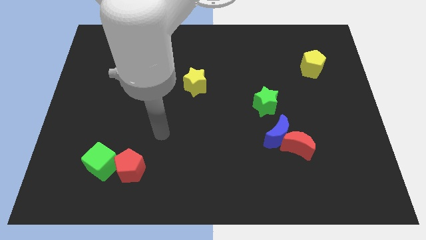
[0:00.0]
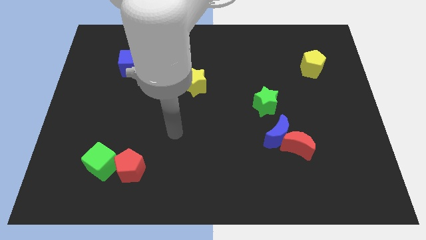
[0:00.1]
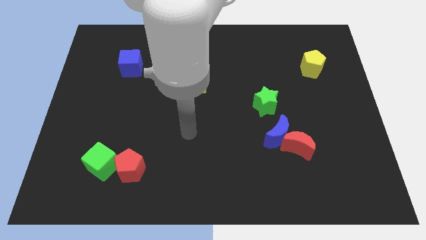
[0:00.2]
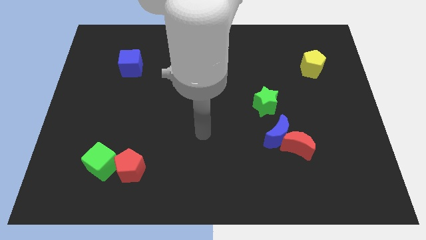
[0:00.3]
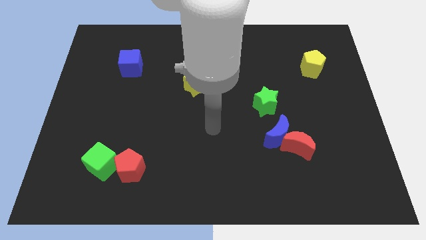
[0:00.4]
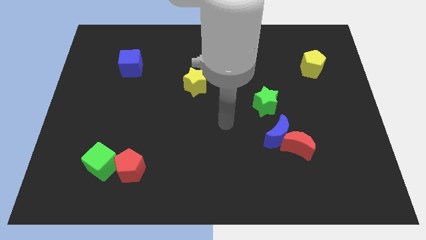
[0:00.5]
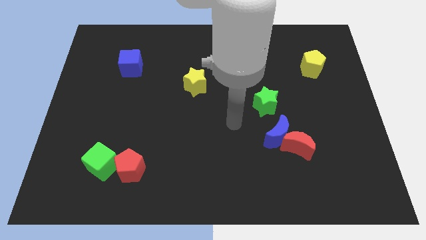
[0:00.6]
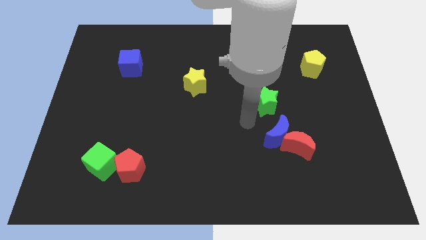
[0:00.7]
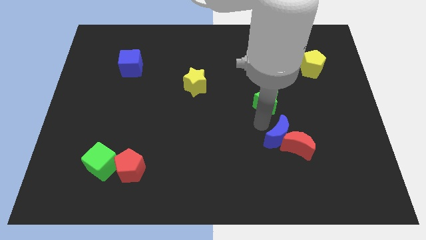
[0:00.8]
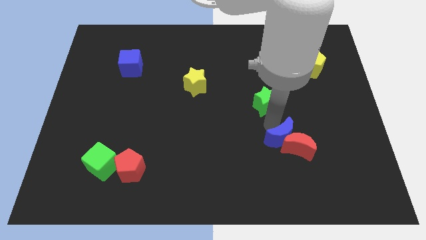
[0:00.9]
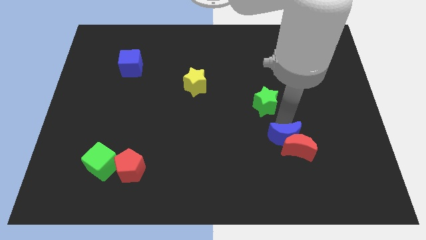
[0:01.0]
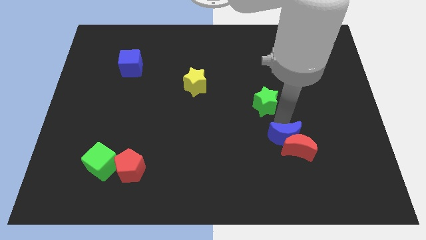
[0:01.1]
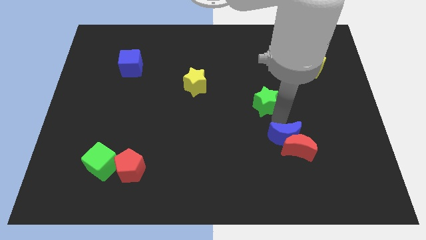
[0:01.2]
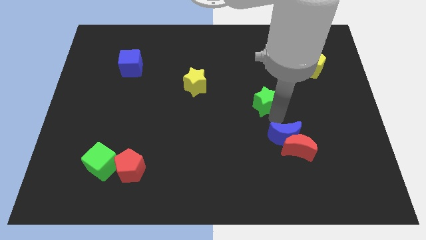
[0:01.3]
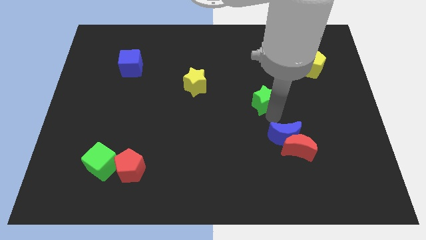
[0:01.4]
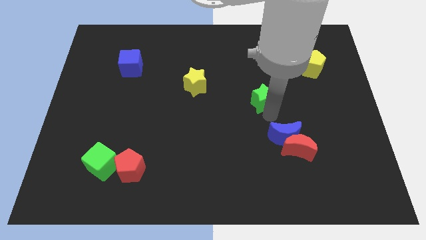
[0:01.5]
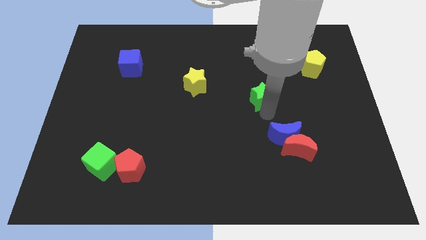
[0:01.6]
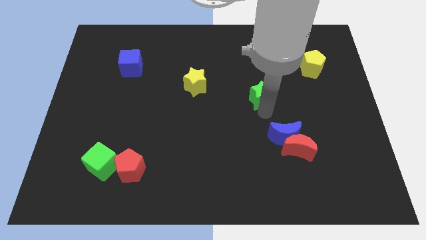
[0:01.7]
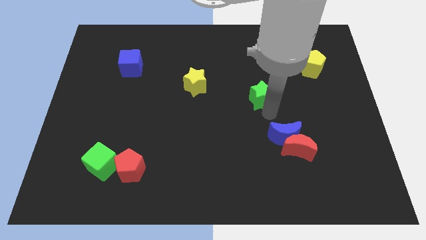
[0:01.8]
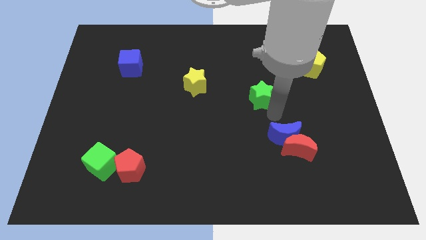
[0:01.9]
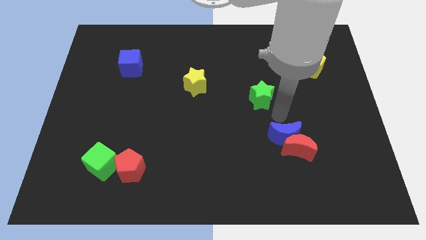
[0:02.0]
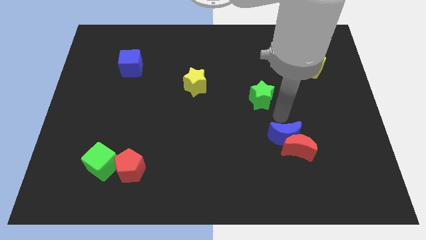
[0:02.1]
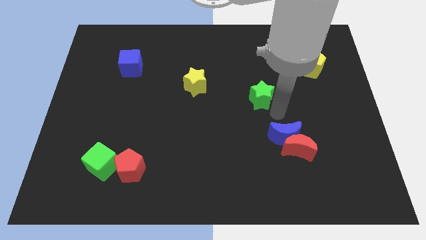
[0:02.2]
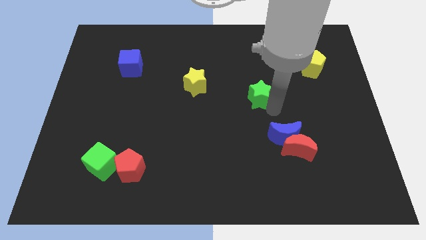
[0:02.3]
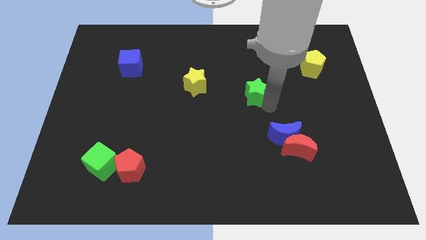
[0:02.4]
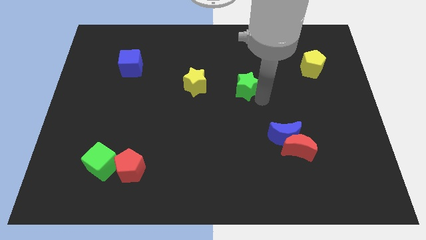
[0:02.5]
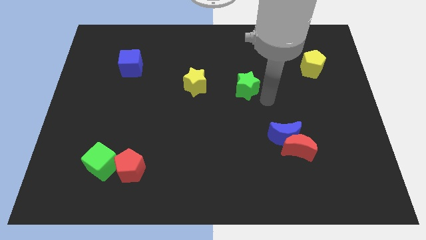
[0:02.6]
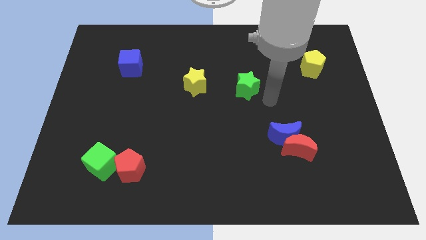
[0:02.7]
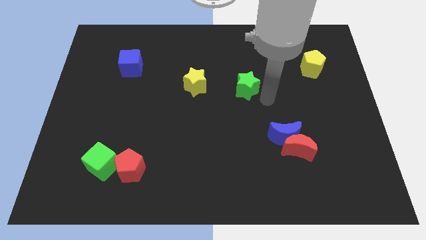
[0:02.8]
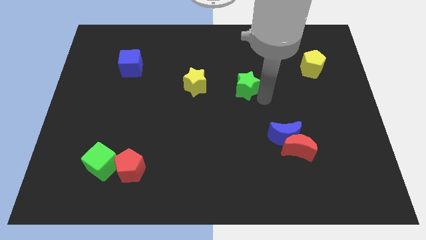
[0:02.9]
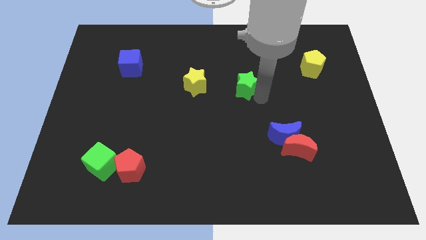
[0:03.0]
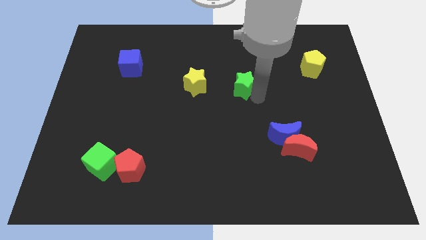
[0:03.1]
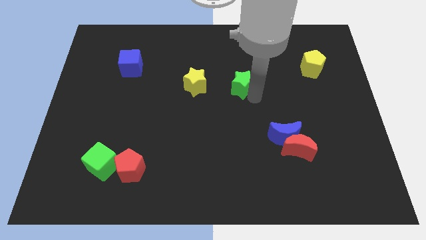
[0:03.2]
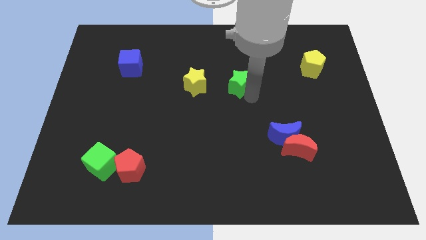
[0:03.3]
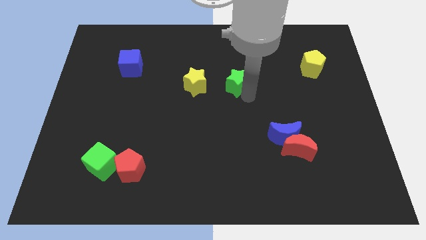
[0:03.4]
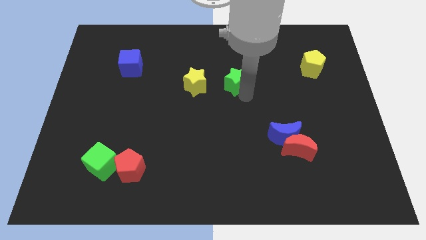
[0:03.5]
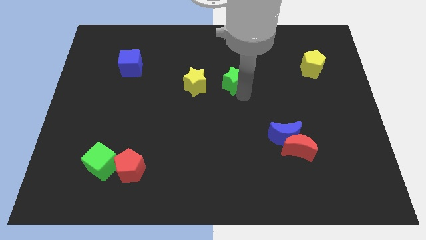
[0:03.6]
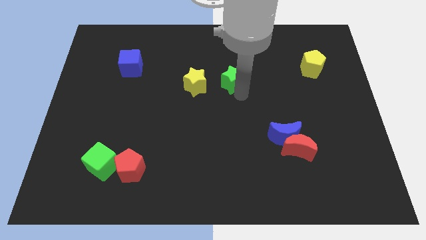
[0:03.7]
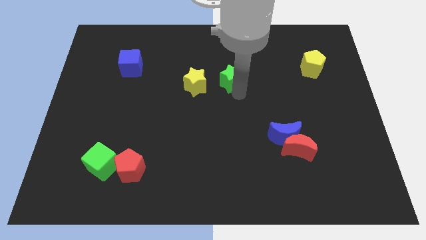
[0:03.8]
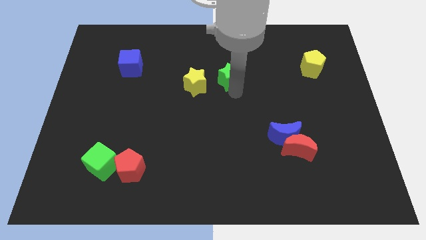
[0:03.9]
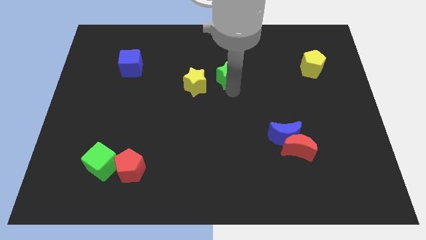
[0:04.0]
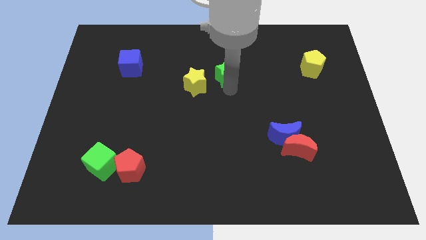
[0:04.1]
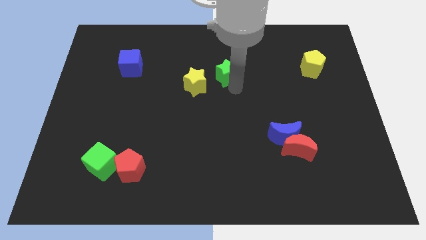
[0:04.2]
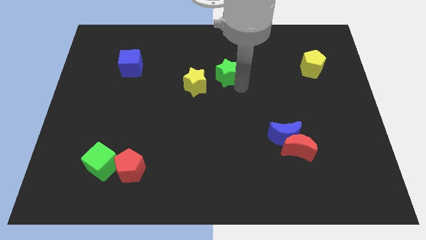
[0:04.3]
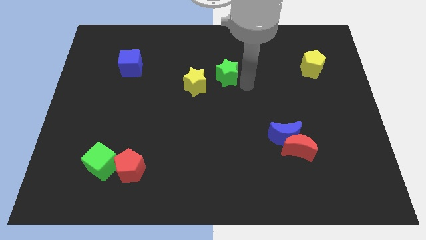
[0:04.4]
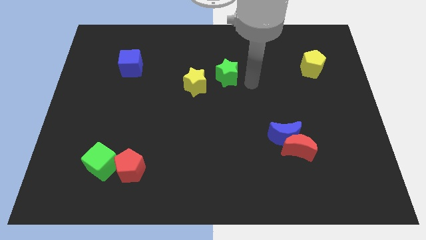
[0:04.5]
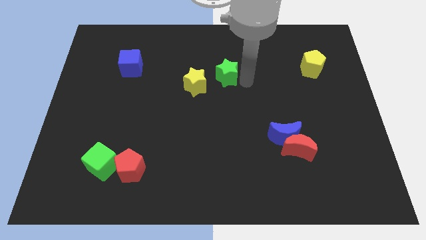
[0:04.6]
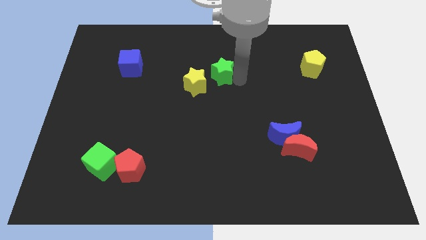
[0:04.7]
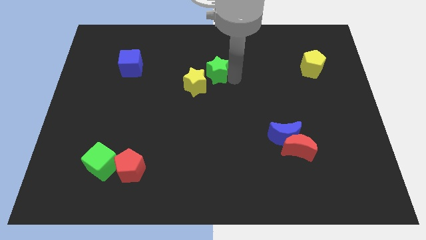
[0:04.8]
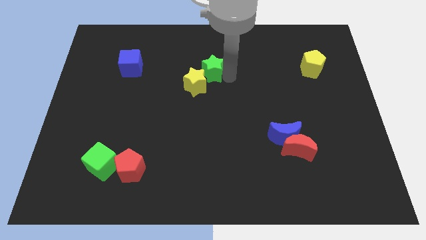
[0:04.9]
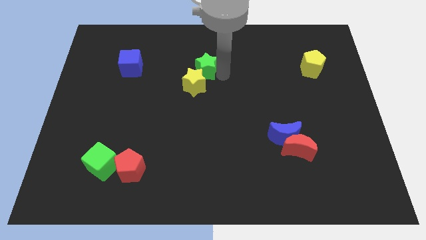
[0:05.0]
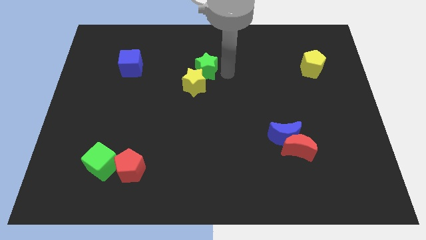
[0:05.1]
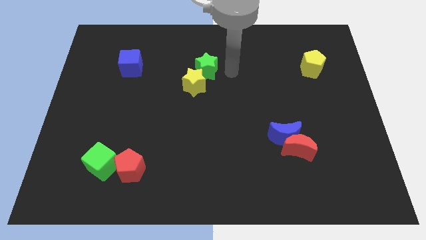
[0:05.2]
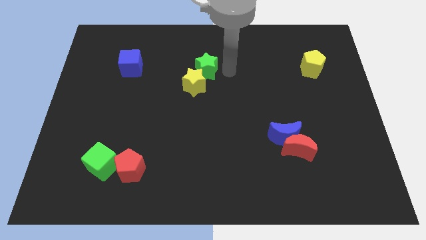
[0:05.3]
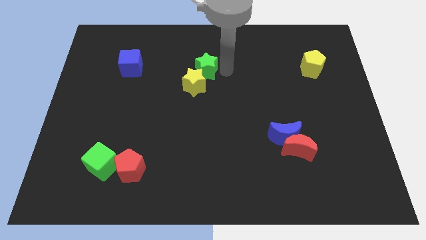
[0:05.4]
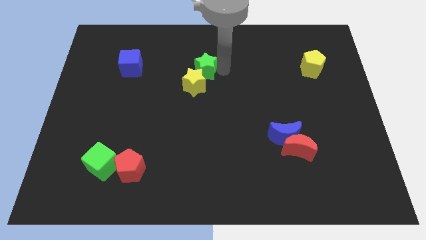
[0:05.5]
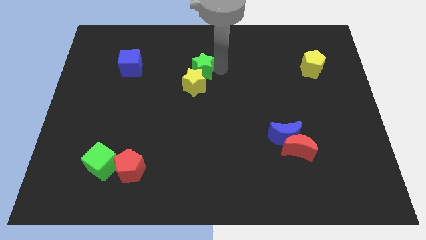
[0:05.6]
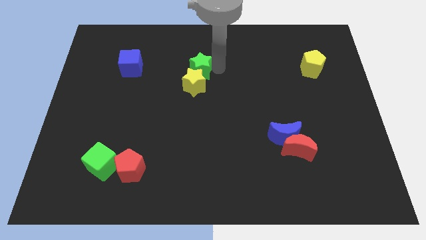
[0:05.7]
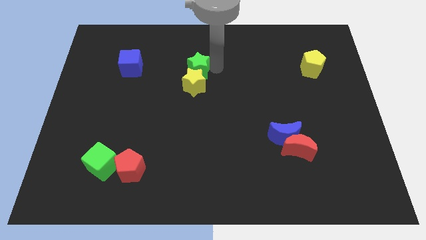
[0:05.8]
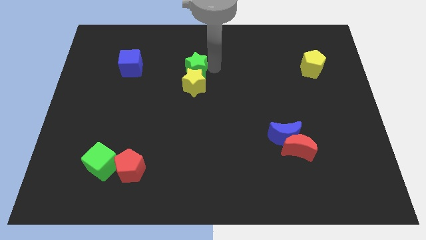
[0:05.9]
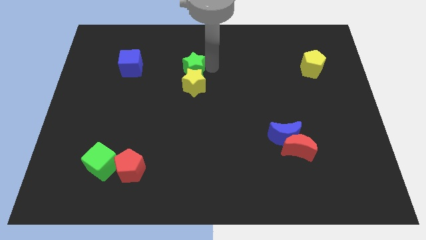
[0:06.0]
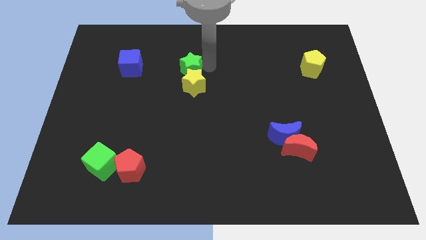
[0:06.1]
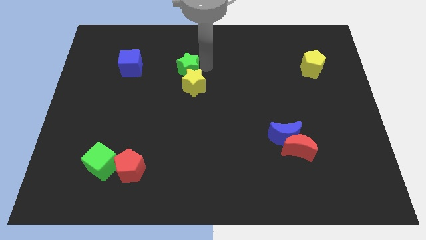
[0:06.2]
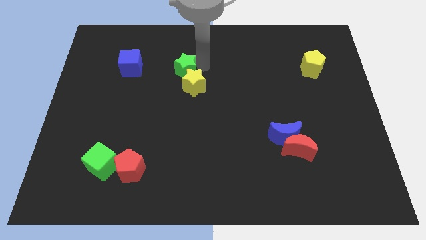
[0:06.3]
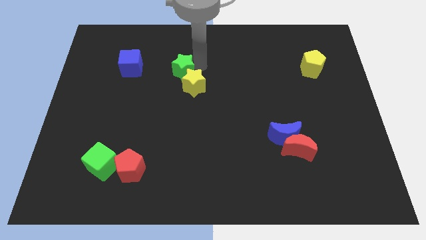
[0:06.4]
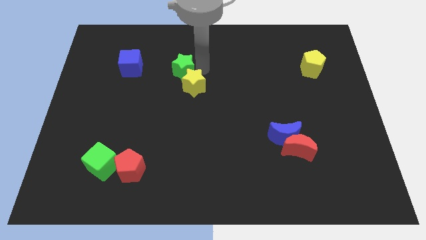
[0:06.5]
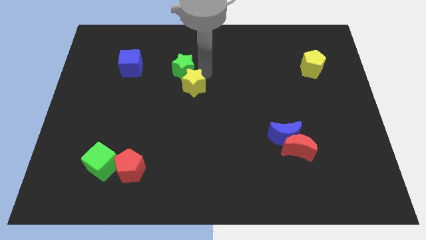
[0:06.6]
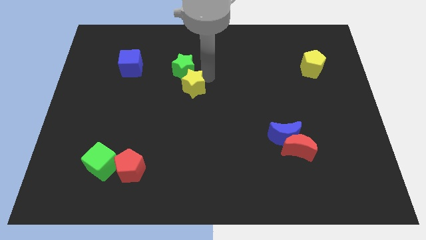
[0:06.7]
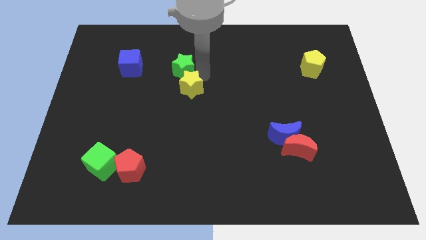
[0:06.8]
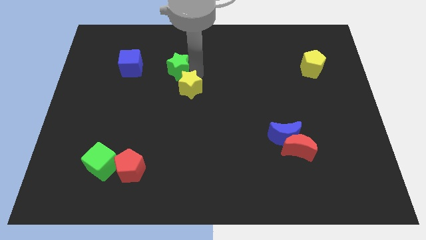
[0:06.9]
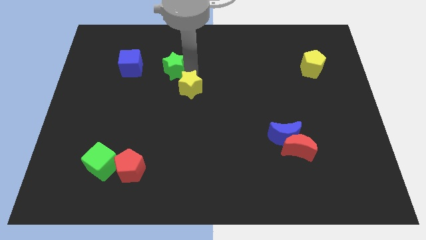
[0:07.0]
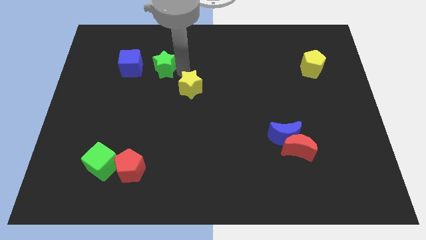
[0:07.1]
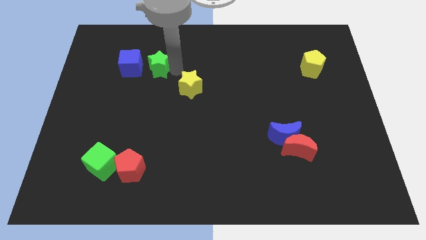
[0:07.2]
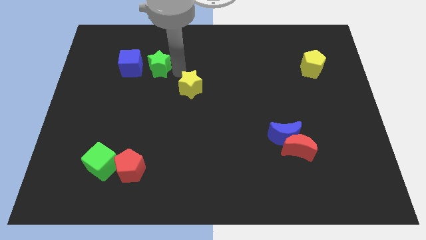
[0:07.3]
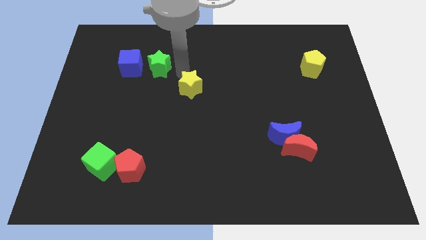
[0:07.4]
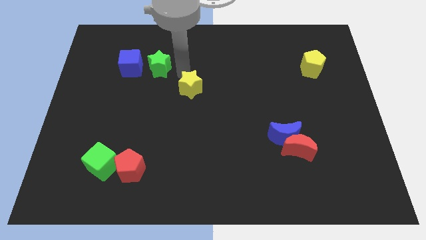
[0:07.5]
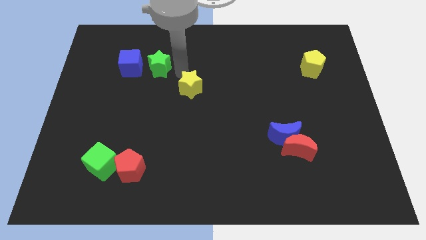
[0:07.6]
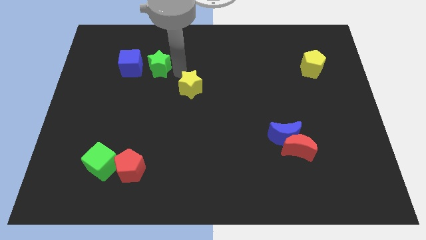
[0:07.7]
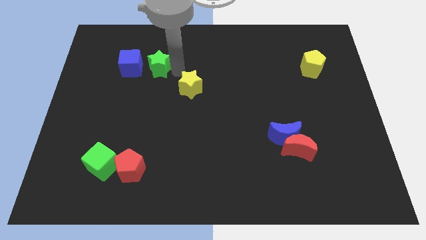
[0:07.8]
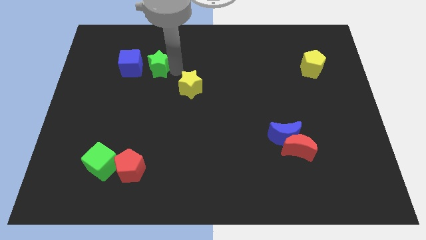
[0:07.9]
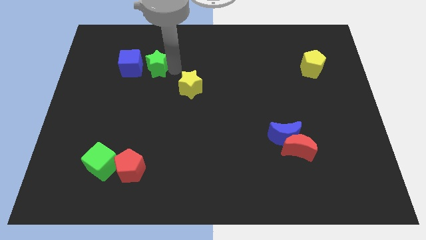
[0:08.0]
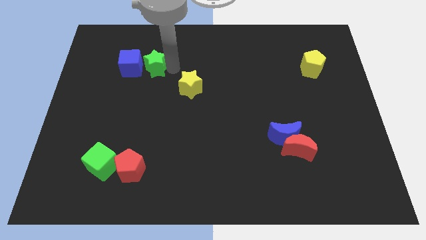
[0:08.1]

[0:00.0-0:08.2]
move the green star to the blue cube
